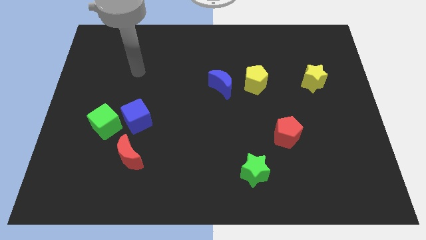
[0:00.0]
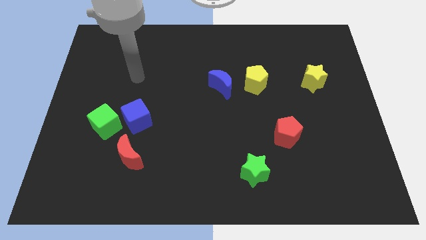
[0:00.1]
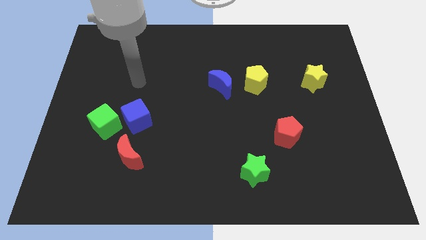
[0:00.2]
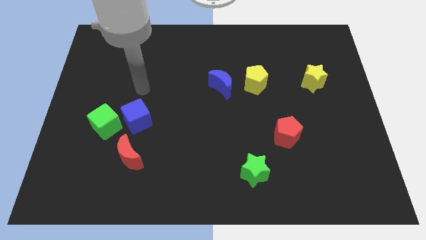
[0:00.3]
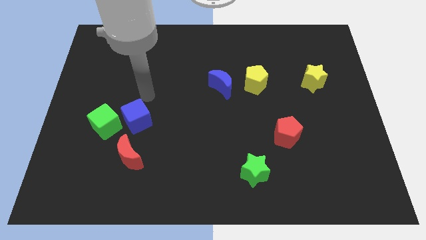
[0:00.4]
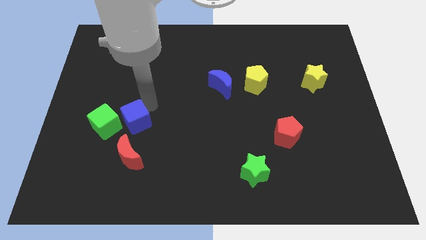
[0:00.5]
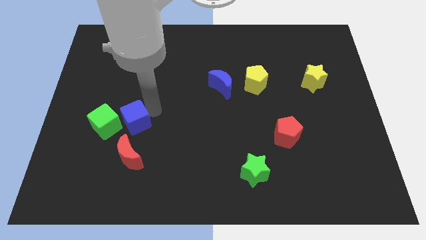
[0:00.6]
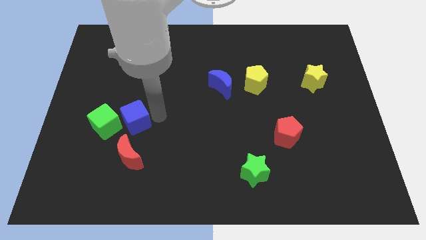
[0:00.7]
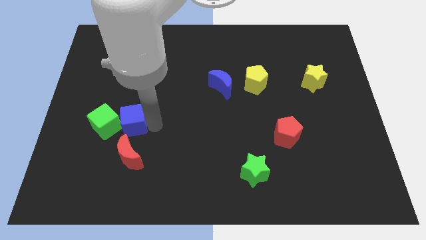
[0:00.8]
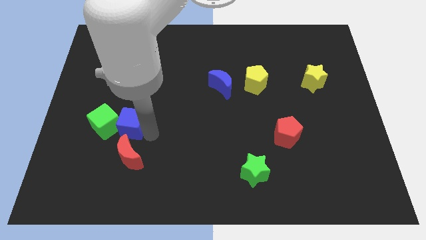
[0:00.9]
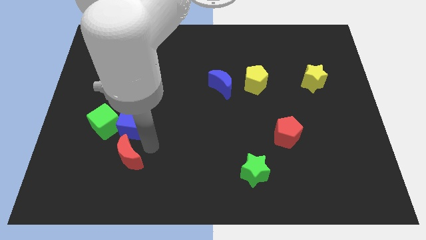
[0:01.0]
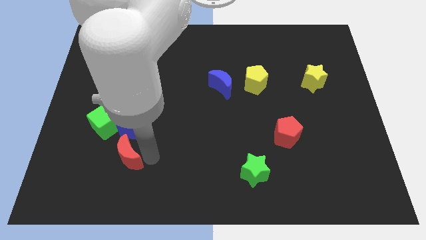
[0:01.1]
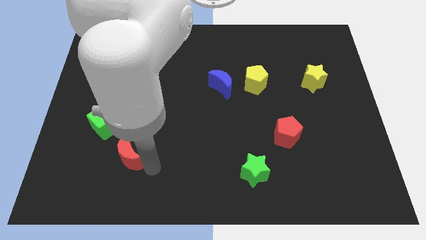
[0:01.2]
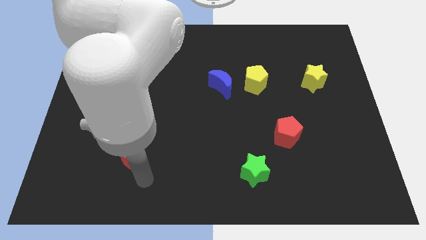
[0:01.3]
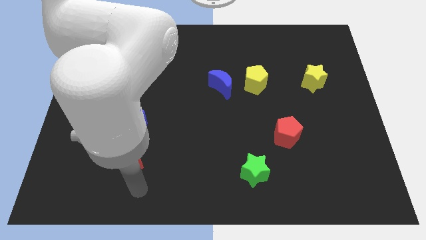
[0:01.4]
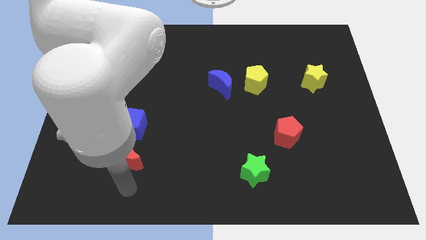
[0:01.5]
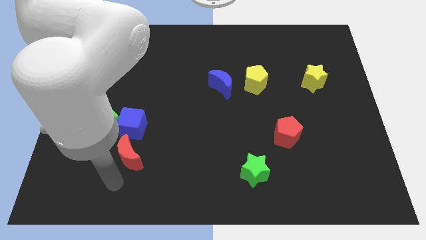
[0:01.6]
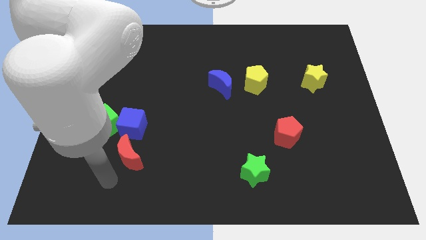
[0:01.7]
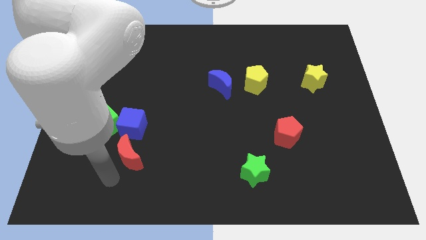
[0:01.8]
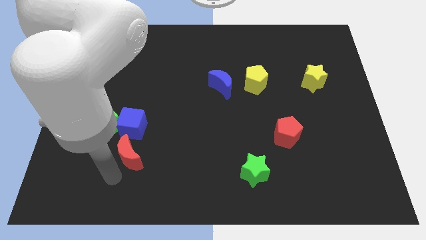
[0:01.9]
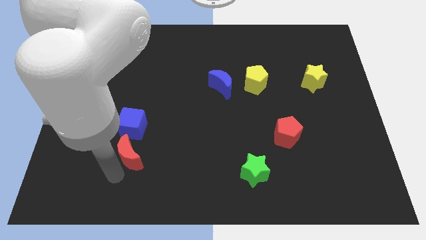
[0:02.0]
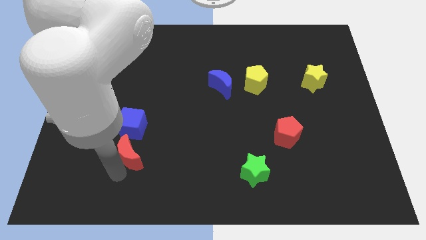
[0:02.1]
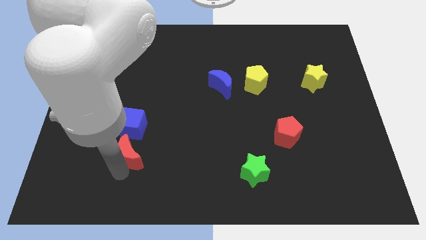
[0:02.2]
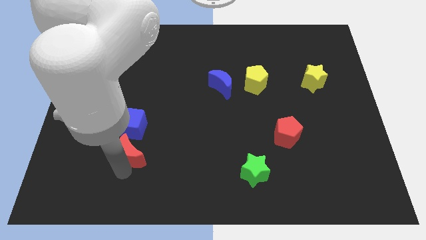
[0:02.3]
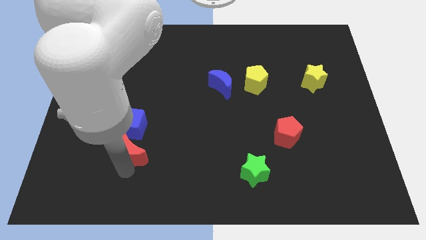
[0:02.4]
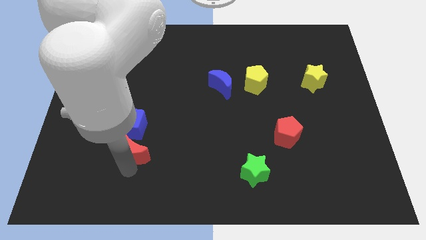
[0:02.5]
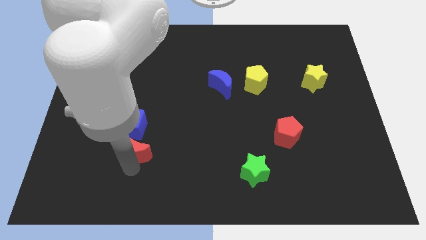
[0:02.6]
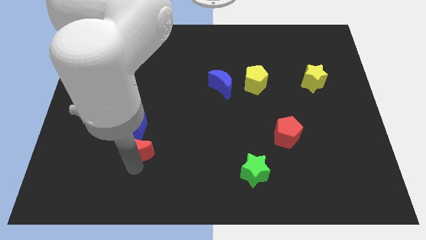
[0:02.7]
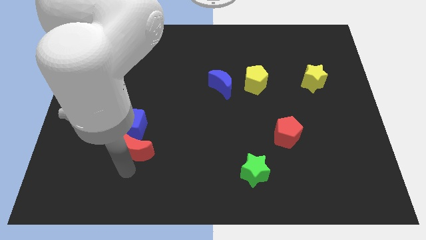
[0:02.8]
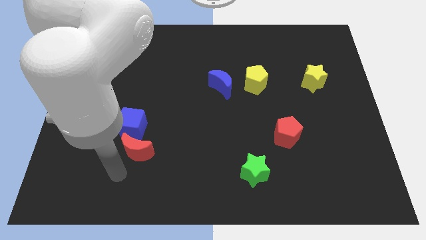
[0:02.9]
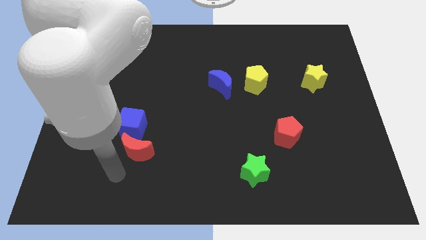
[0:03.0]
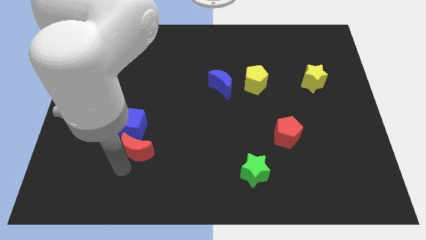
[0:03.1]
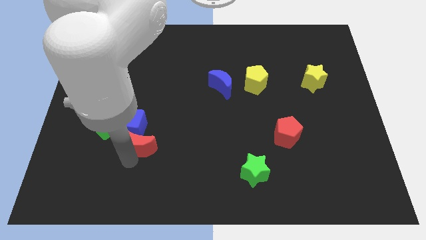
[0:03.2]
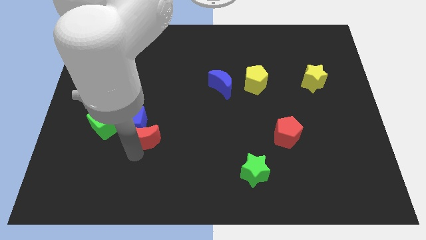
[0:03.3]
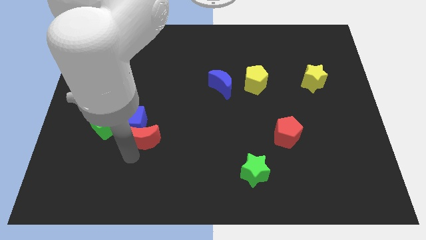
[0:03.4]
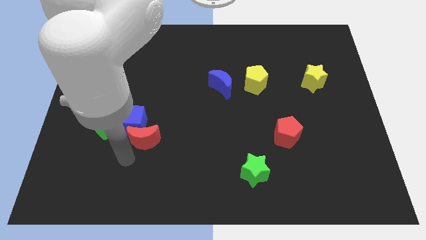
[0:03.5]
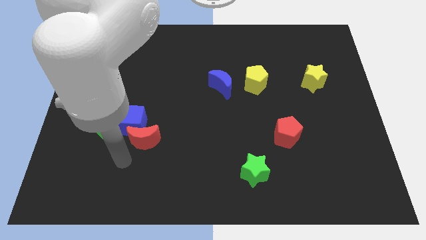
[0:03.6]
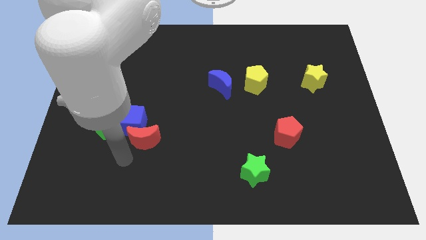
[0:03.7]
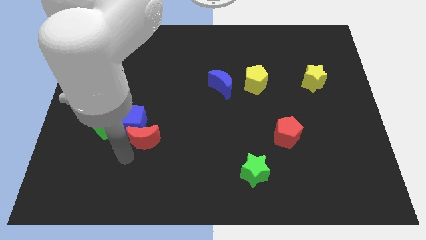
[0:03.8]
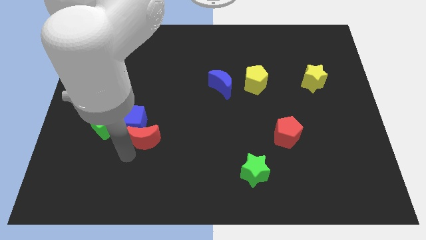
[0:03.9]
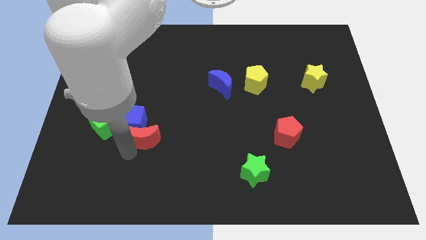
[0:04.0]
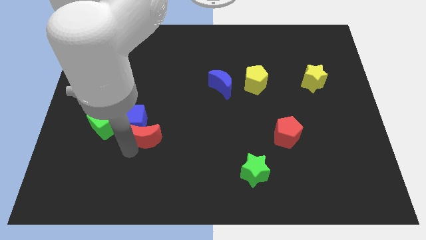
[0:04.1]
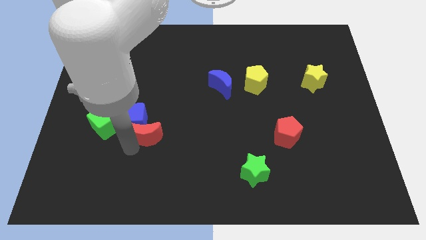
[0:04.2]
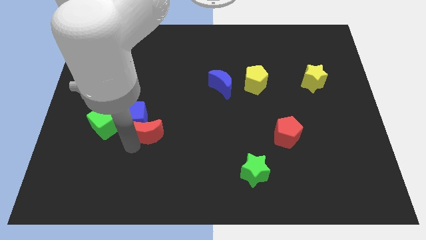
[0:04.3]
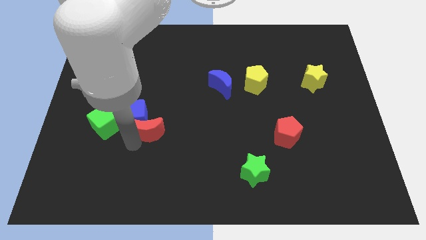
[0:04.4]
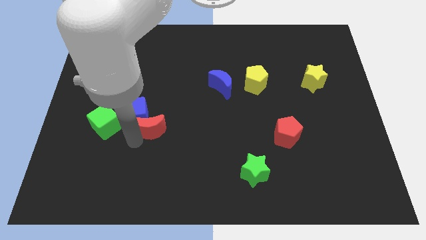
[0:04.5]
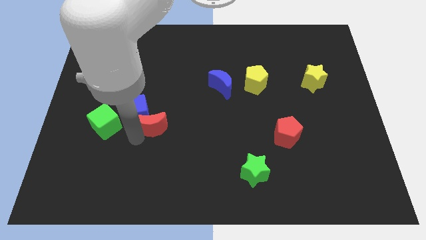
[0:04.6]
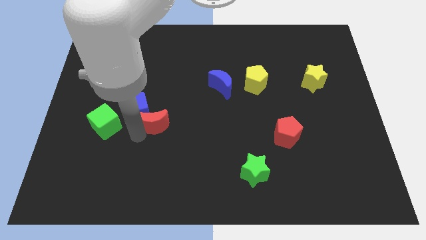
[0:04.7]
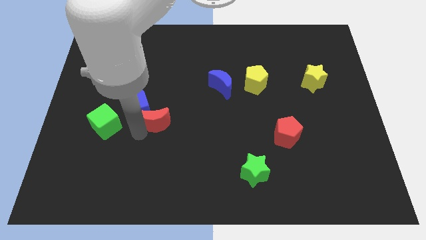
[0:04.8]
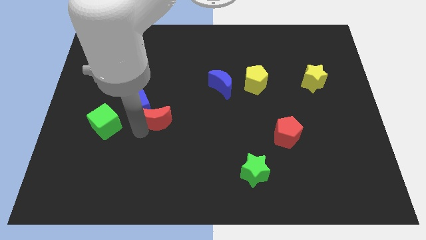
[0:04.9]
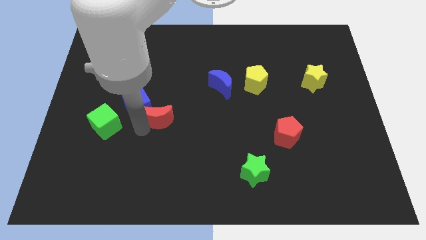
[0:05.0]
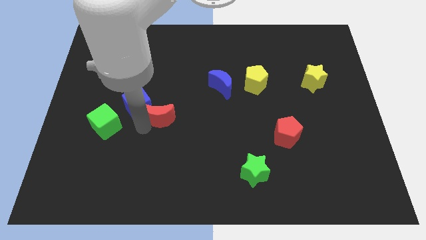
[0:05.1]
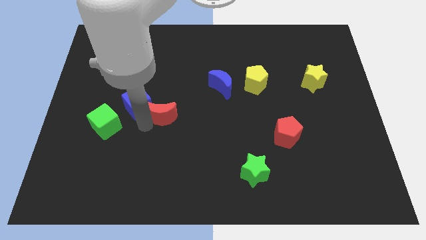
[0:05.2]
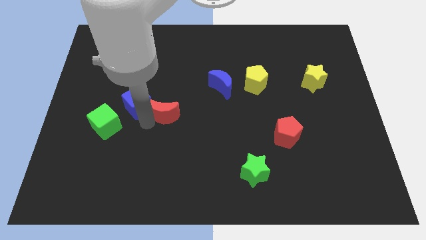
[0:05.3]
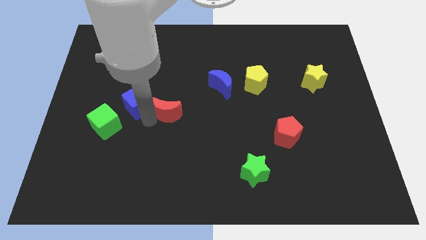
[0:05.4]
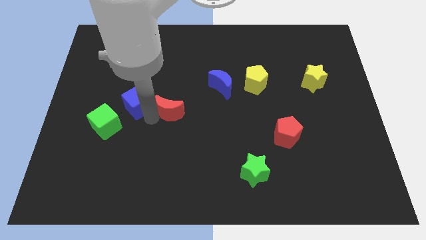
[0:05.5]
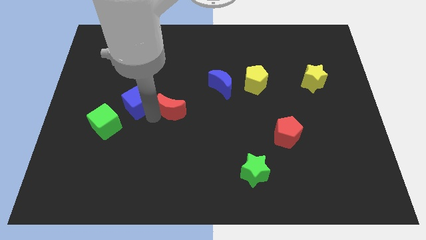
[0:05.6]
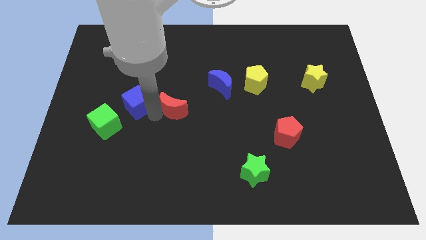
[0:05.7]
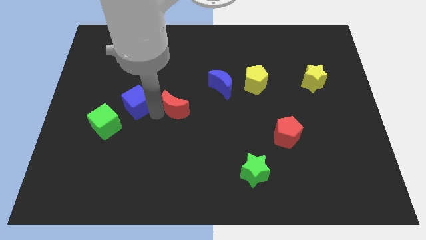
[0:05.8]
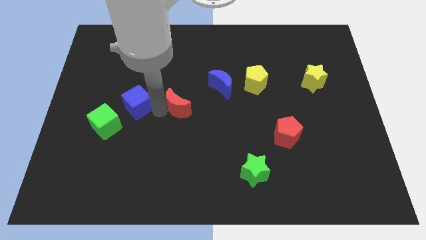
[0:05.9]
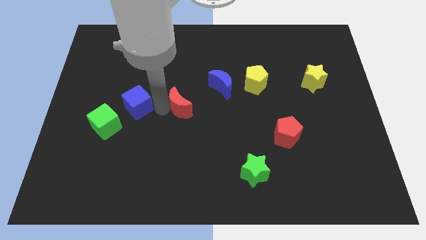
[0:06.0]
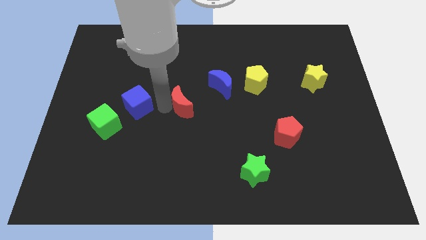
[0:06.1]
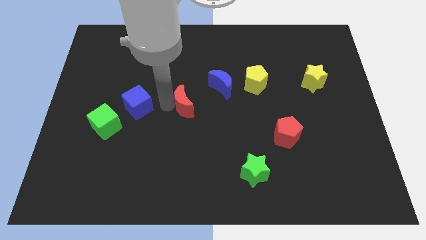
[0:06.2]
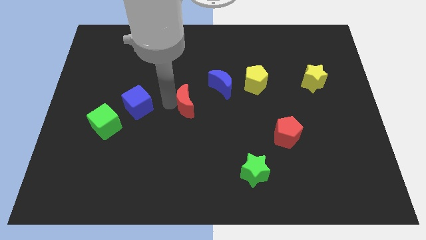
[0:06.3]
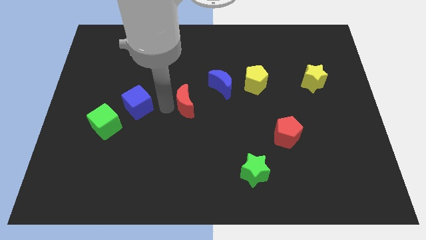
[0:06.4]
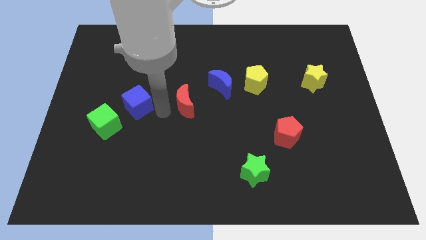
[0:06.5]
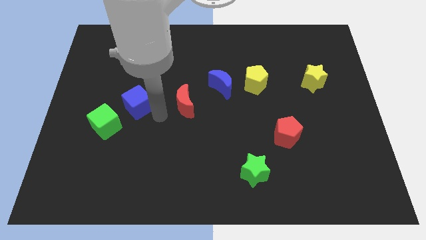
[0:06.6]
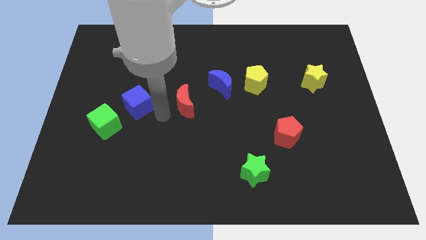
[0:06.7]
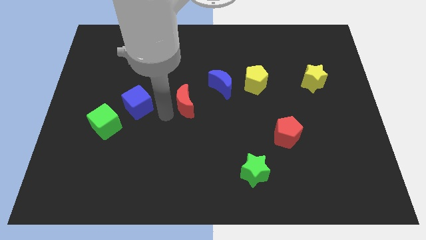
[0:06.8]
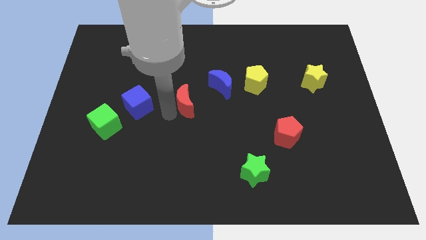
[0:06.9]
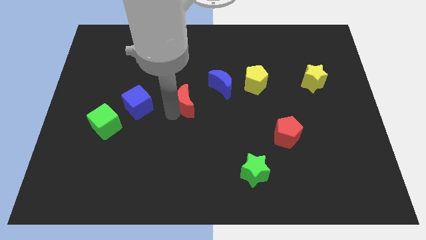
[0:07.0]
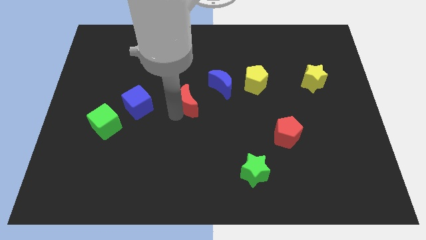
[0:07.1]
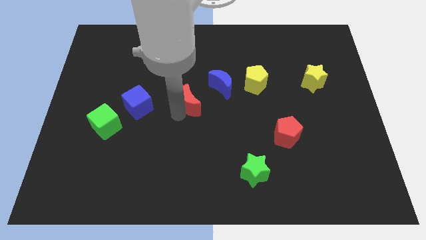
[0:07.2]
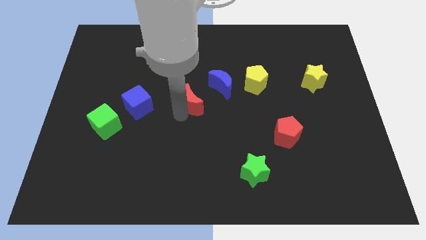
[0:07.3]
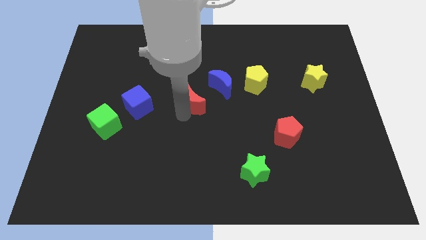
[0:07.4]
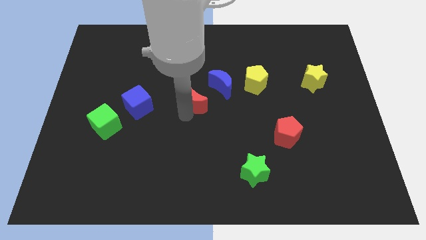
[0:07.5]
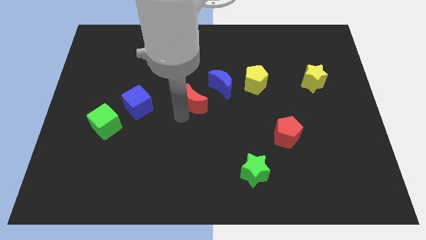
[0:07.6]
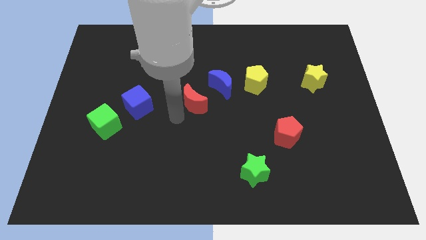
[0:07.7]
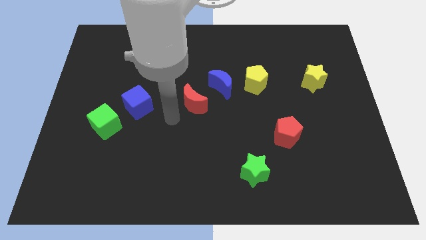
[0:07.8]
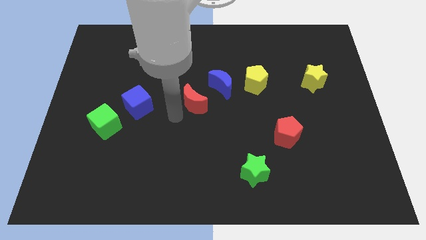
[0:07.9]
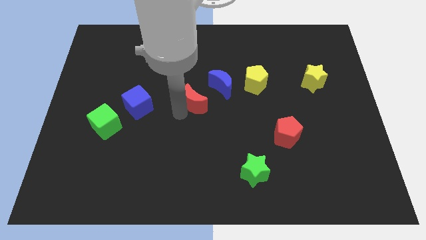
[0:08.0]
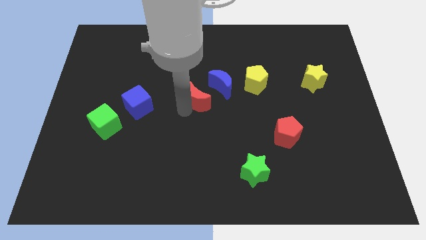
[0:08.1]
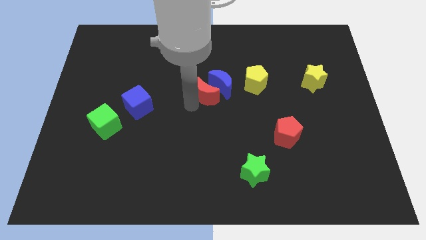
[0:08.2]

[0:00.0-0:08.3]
slide the red moon next to the blue moon
